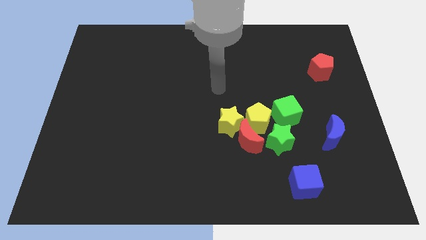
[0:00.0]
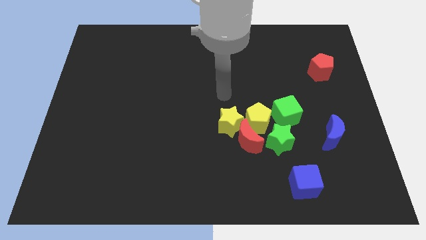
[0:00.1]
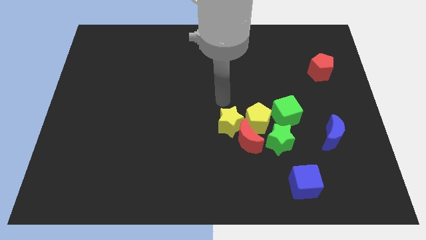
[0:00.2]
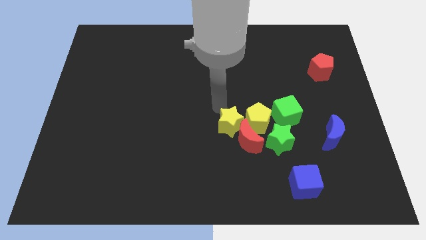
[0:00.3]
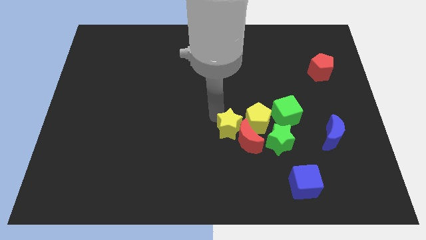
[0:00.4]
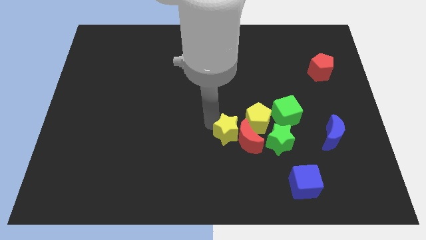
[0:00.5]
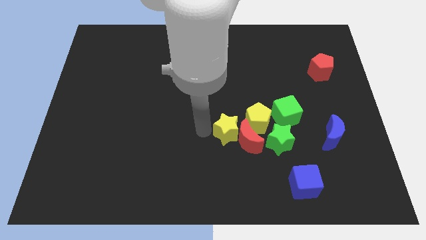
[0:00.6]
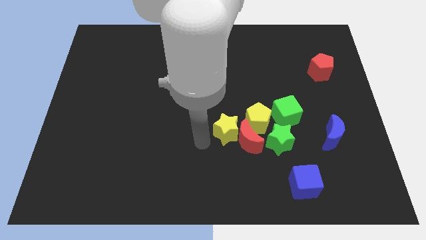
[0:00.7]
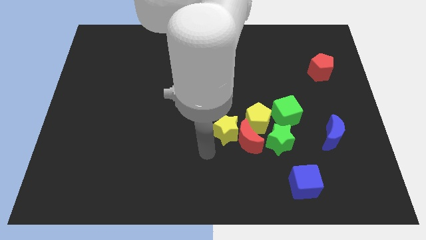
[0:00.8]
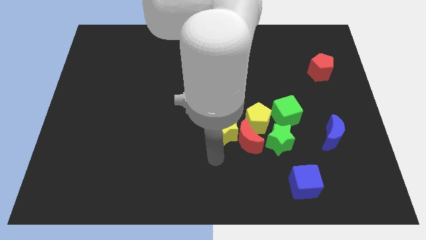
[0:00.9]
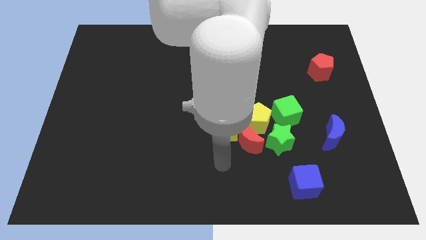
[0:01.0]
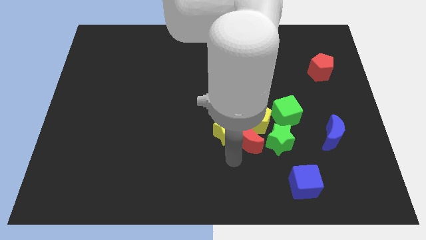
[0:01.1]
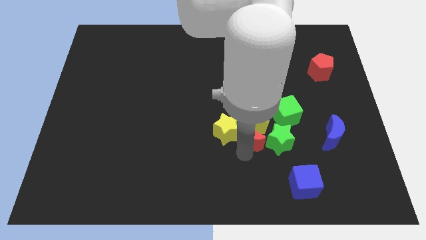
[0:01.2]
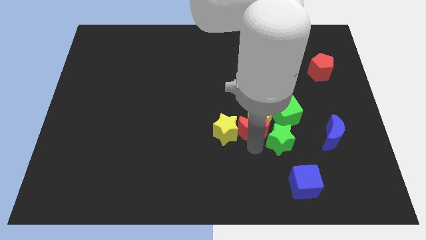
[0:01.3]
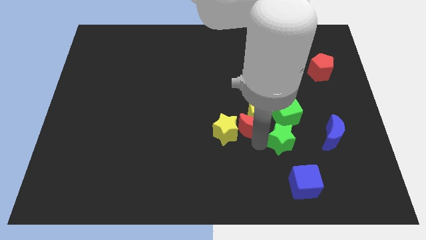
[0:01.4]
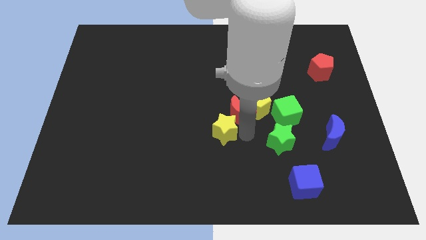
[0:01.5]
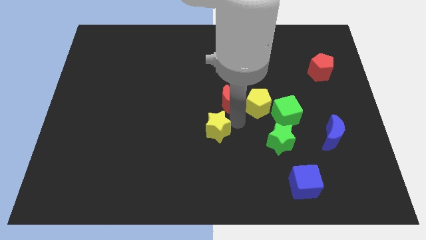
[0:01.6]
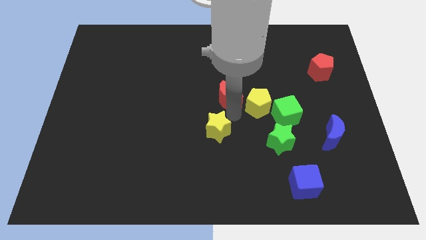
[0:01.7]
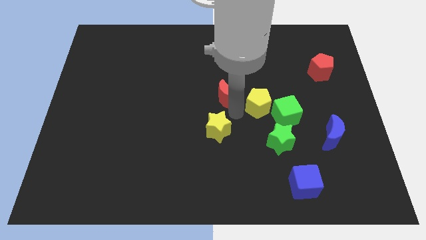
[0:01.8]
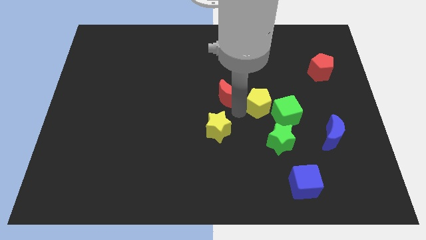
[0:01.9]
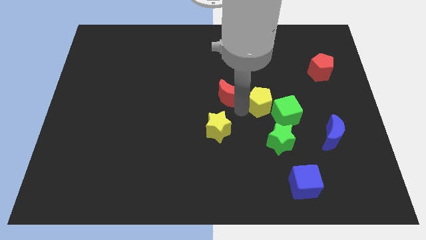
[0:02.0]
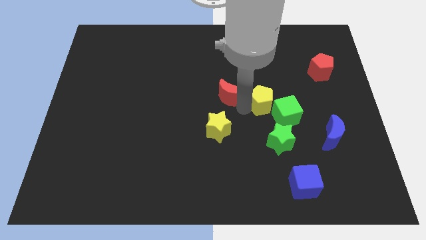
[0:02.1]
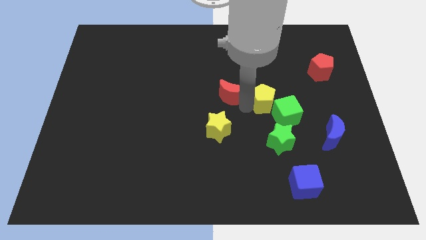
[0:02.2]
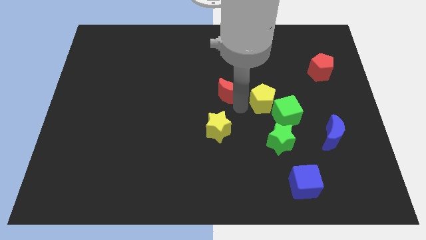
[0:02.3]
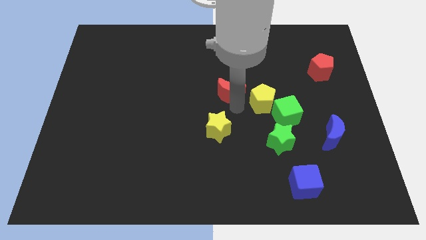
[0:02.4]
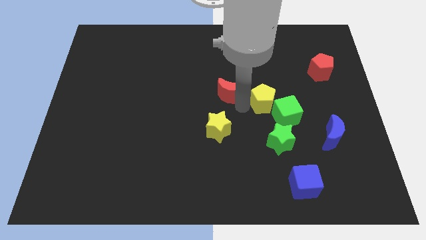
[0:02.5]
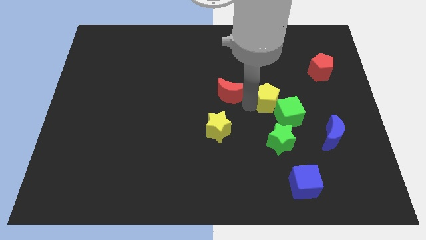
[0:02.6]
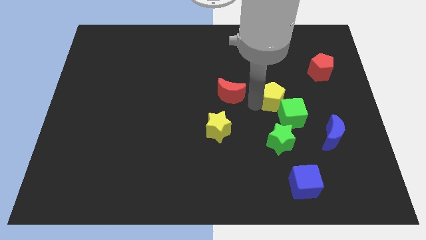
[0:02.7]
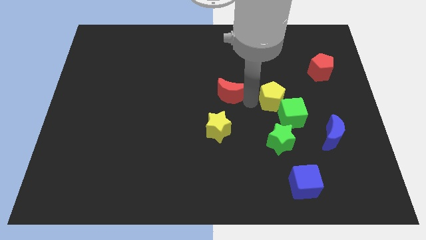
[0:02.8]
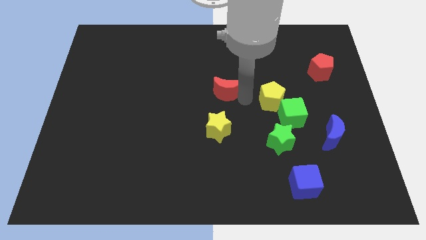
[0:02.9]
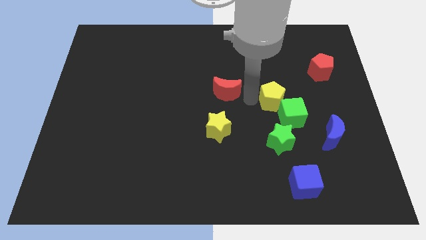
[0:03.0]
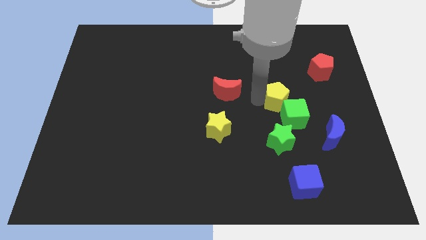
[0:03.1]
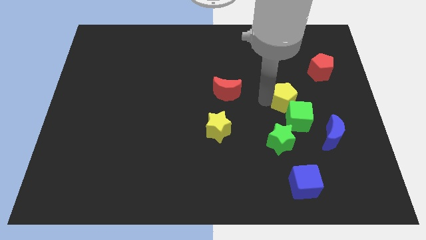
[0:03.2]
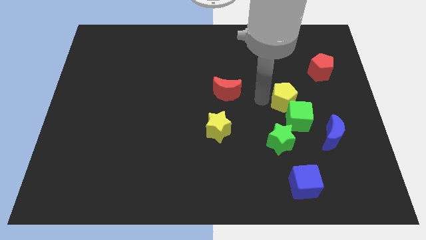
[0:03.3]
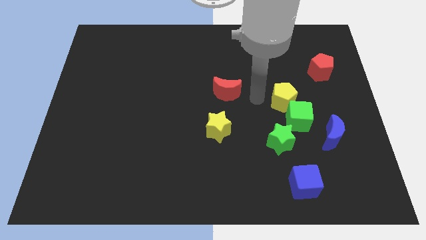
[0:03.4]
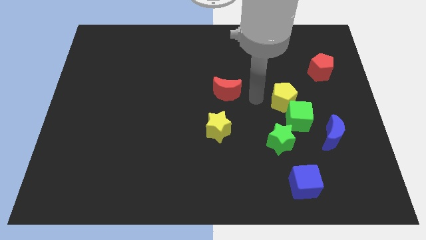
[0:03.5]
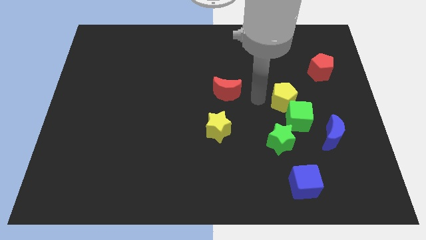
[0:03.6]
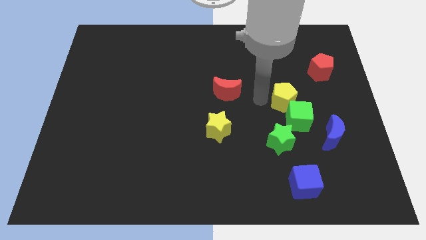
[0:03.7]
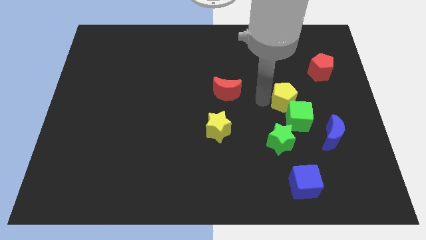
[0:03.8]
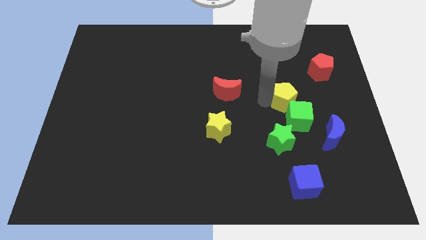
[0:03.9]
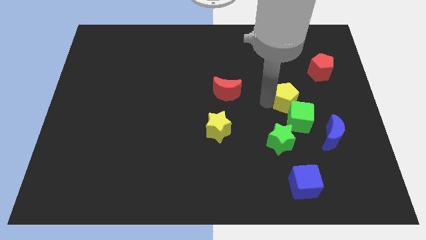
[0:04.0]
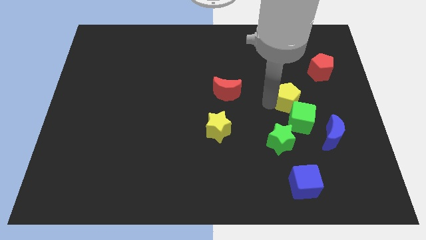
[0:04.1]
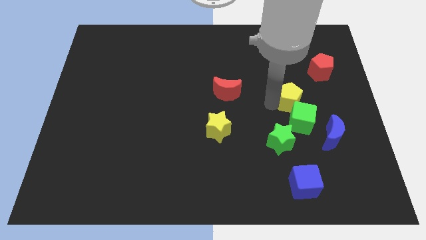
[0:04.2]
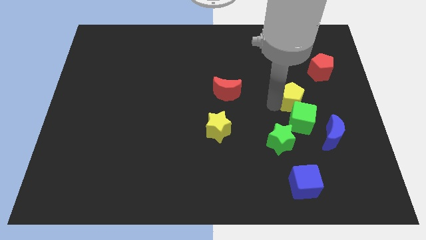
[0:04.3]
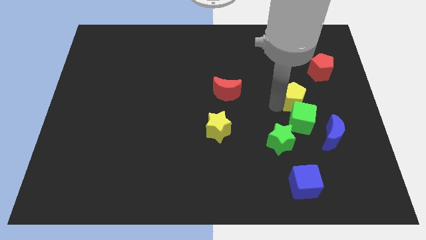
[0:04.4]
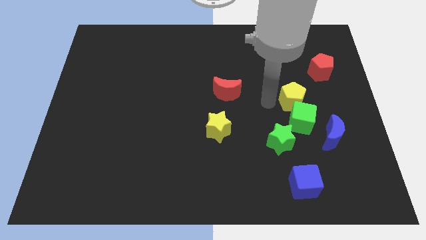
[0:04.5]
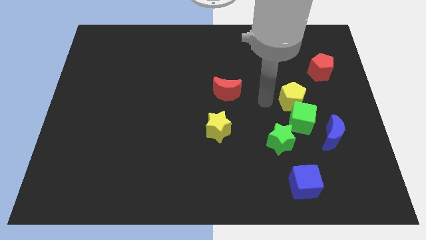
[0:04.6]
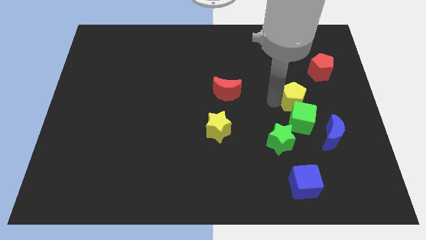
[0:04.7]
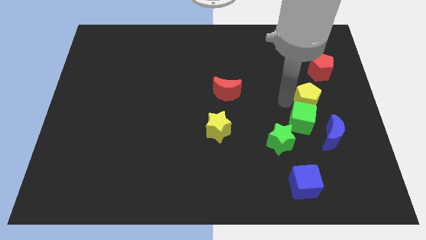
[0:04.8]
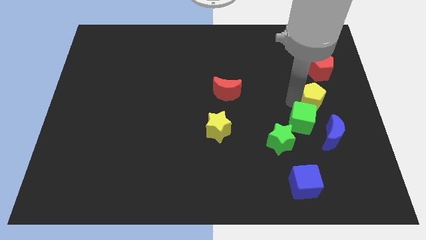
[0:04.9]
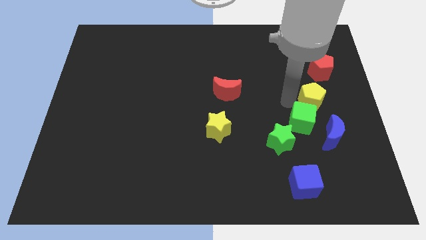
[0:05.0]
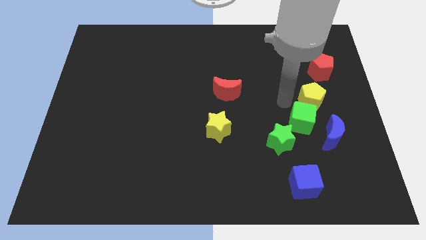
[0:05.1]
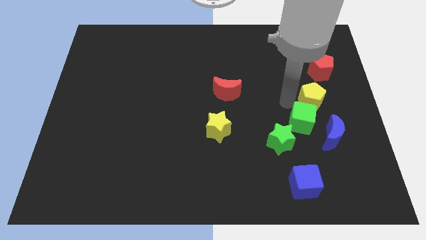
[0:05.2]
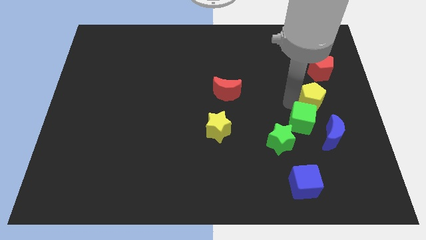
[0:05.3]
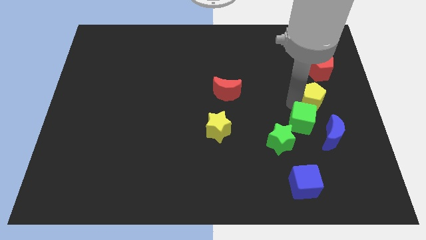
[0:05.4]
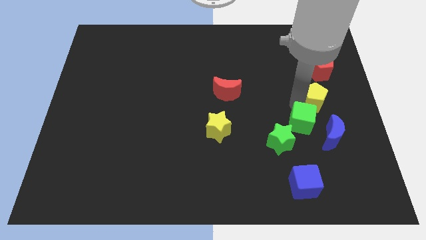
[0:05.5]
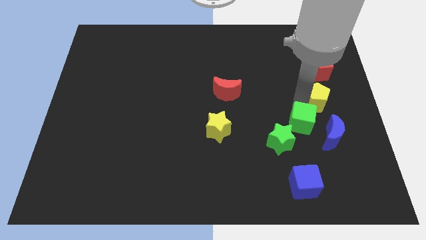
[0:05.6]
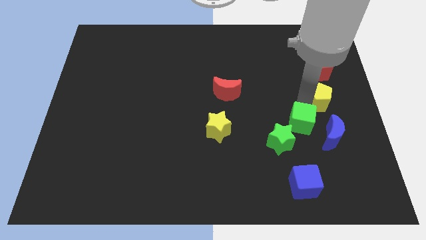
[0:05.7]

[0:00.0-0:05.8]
move the yellow pentagon to the right side of the board
